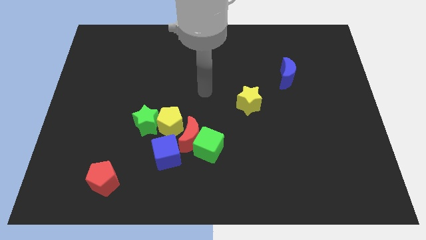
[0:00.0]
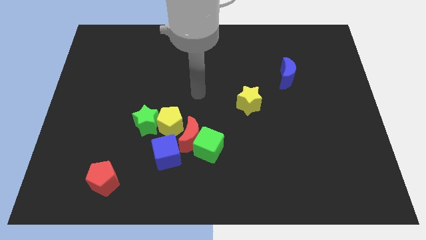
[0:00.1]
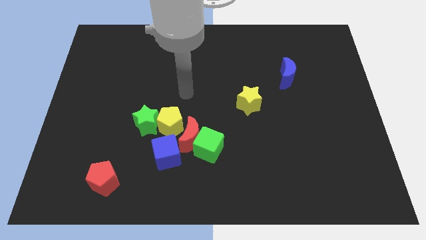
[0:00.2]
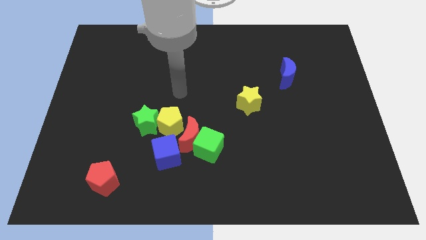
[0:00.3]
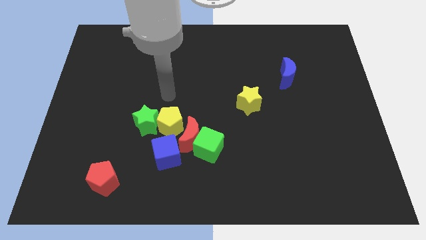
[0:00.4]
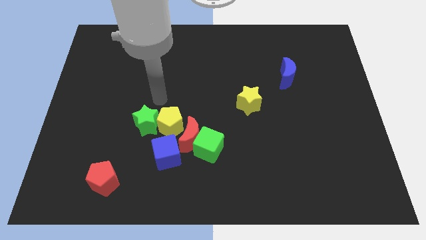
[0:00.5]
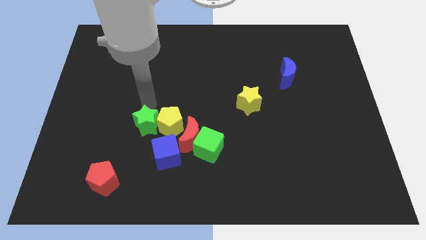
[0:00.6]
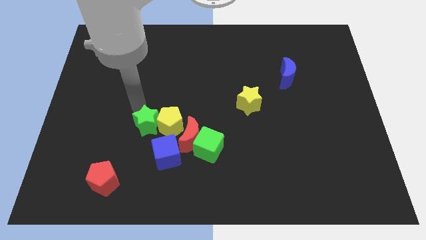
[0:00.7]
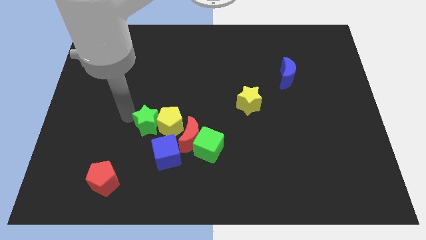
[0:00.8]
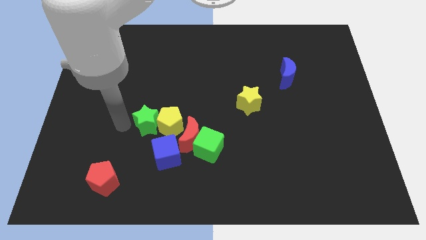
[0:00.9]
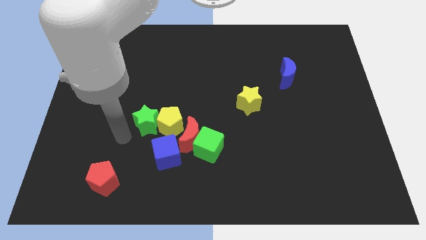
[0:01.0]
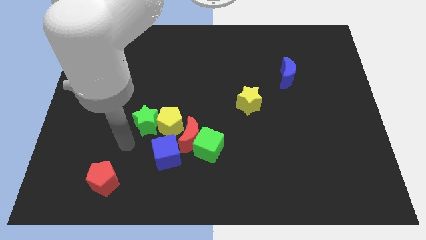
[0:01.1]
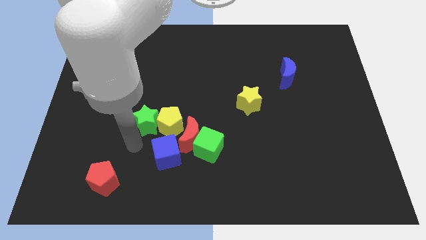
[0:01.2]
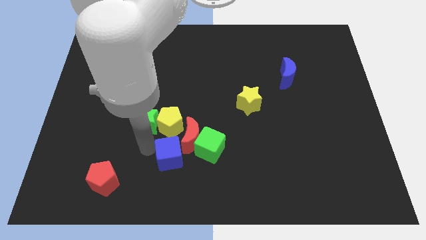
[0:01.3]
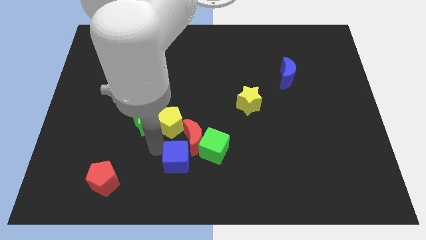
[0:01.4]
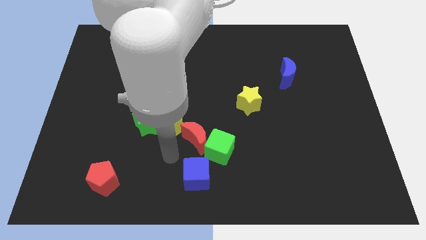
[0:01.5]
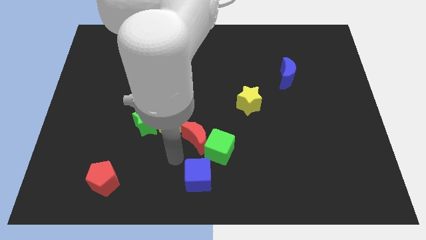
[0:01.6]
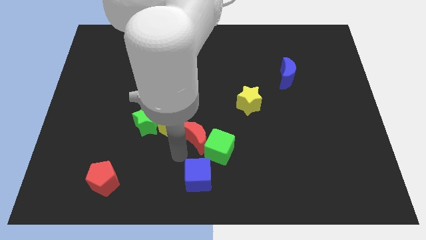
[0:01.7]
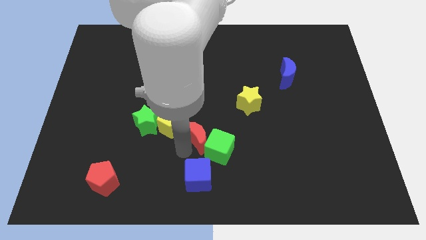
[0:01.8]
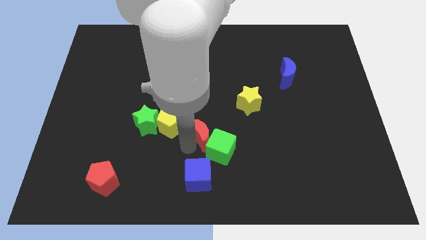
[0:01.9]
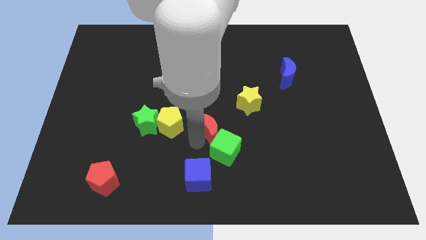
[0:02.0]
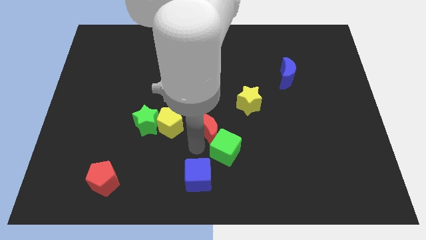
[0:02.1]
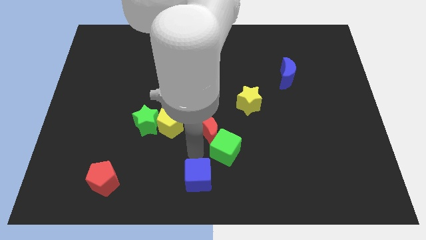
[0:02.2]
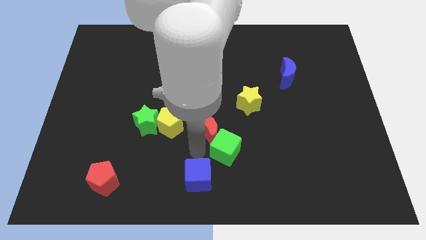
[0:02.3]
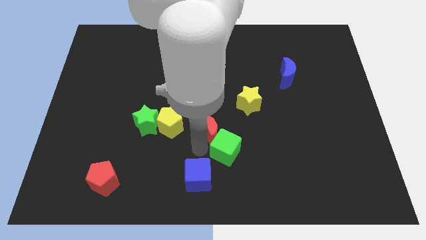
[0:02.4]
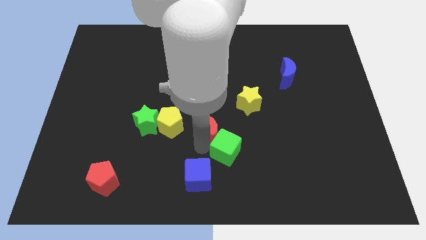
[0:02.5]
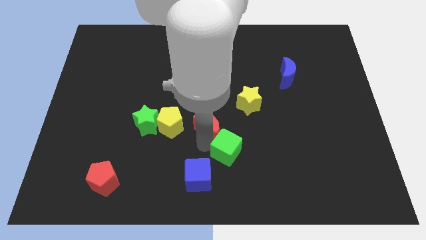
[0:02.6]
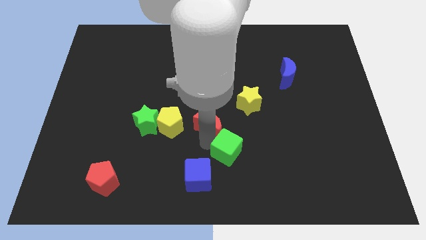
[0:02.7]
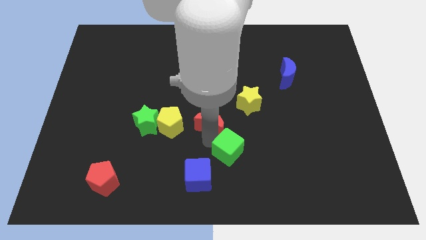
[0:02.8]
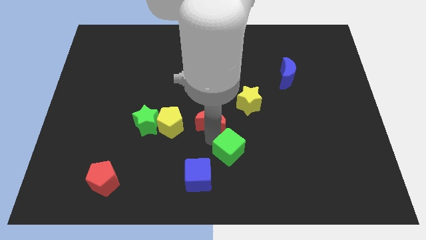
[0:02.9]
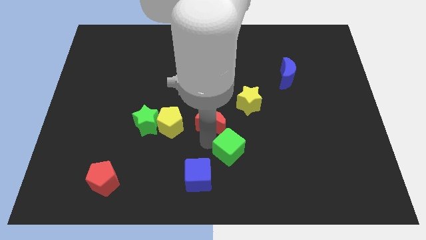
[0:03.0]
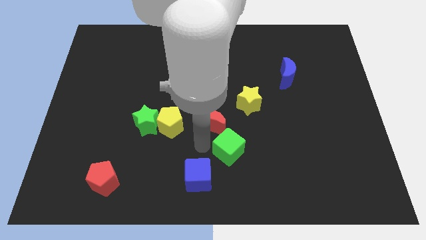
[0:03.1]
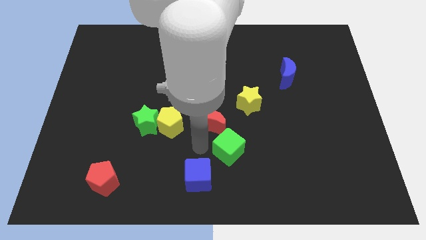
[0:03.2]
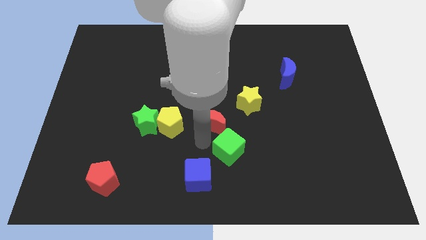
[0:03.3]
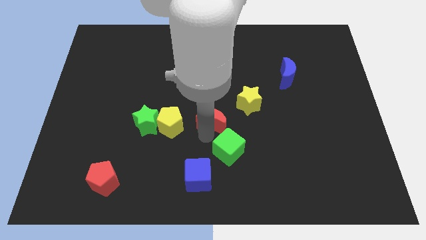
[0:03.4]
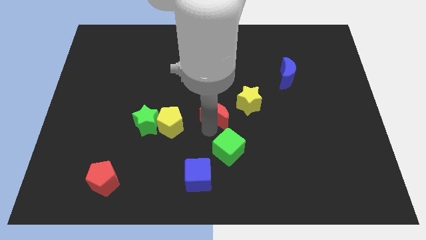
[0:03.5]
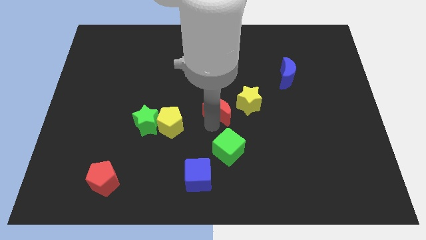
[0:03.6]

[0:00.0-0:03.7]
separate the red moon from the clump

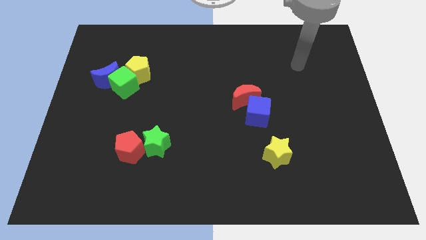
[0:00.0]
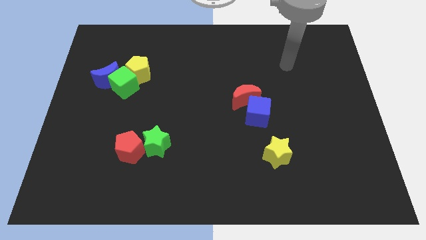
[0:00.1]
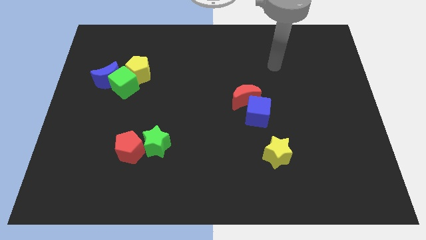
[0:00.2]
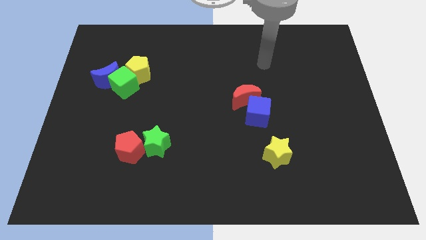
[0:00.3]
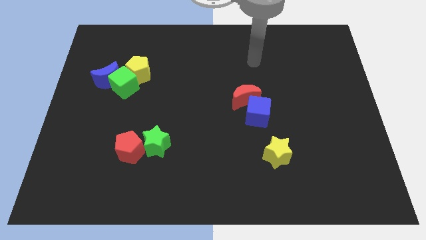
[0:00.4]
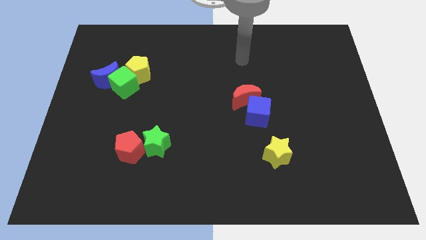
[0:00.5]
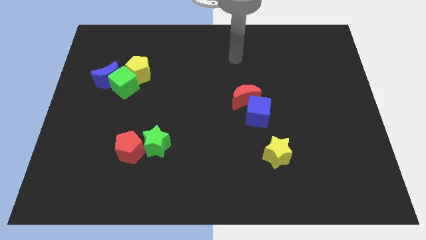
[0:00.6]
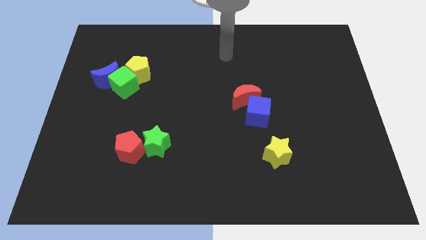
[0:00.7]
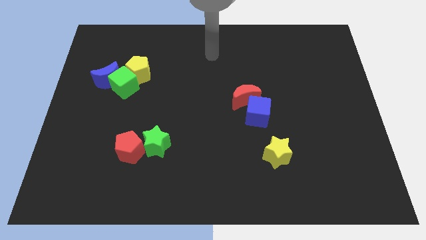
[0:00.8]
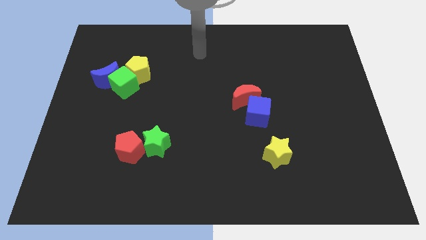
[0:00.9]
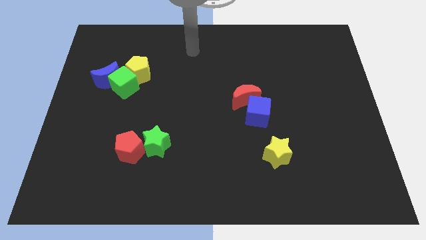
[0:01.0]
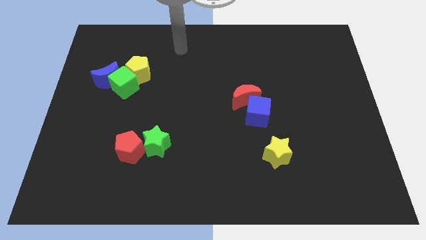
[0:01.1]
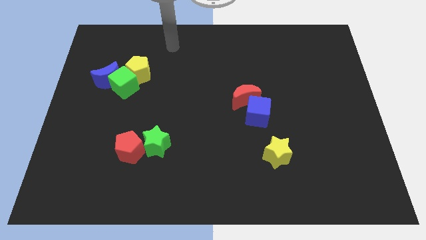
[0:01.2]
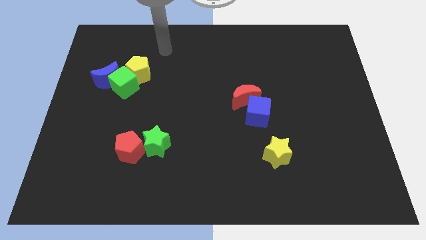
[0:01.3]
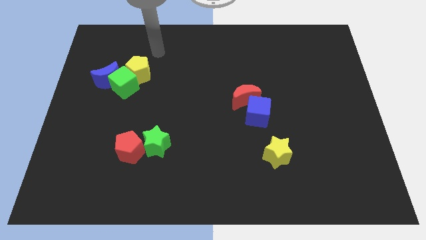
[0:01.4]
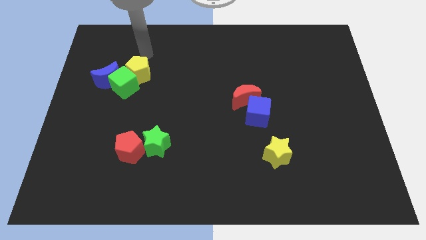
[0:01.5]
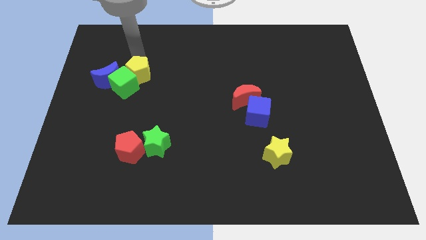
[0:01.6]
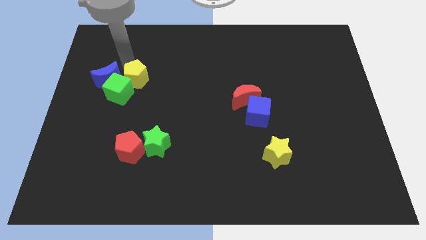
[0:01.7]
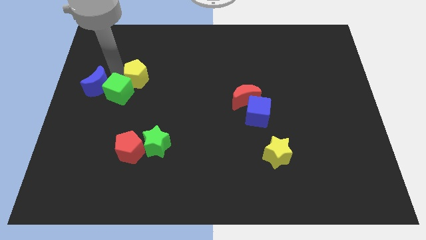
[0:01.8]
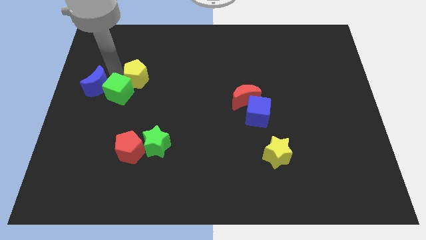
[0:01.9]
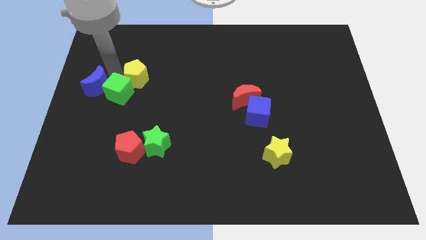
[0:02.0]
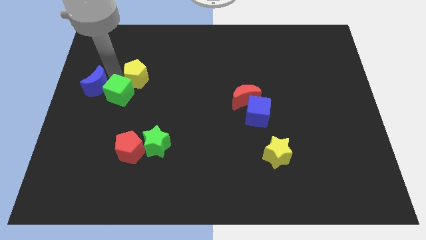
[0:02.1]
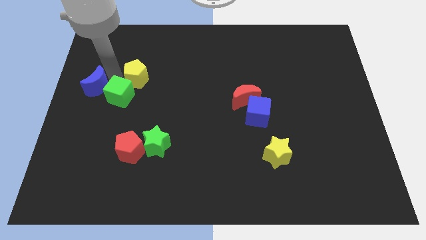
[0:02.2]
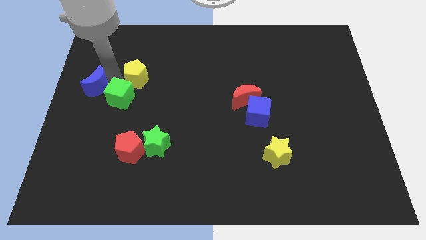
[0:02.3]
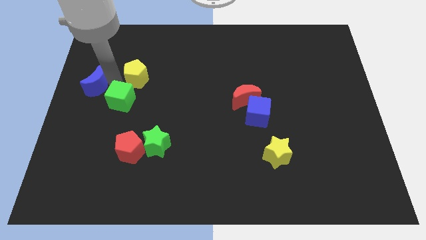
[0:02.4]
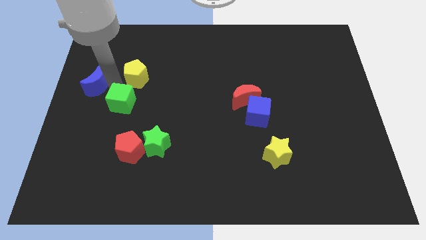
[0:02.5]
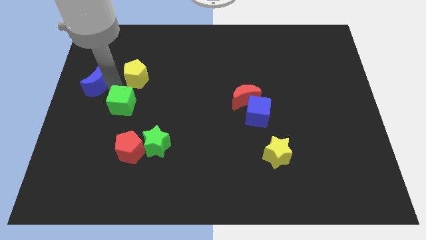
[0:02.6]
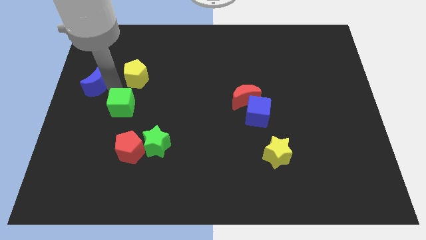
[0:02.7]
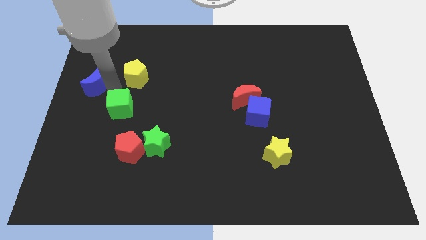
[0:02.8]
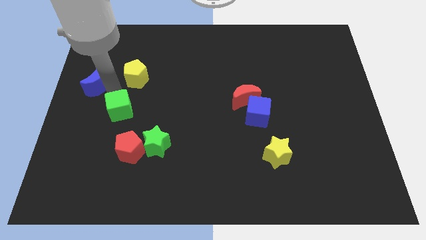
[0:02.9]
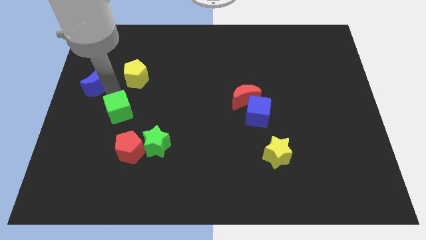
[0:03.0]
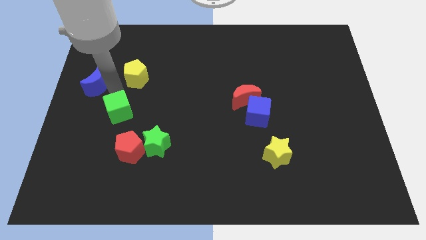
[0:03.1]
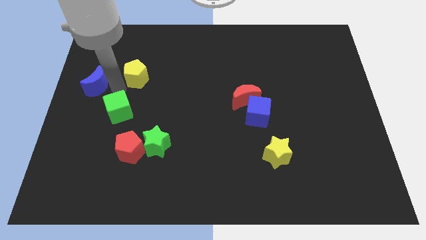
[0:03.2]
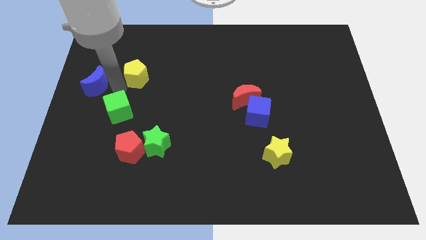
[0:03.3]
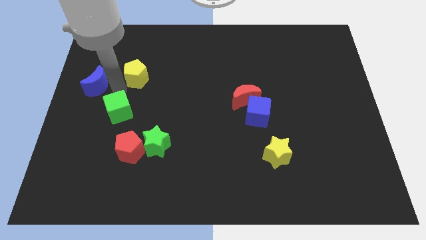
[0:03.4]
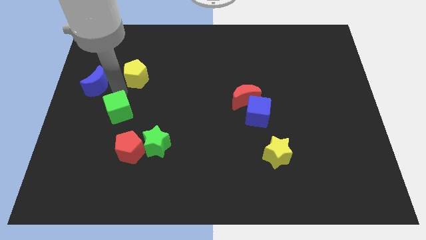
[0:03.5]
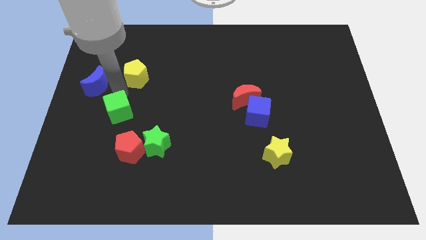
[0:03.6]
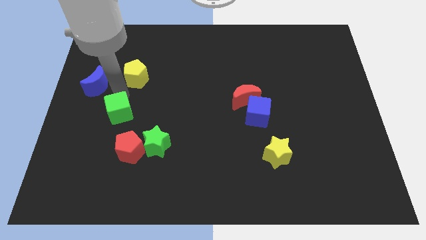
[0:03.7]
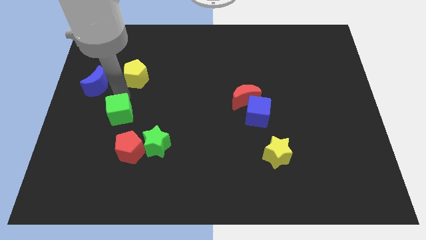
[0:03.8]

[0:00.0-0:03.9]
move the green cube away from the blue moon and yellow pentagon

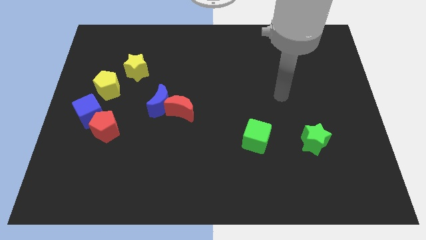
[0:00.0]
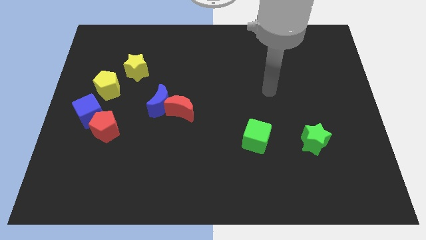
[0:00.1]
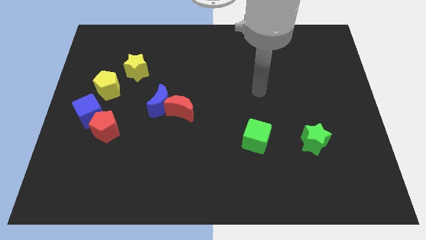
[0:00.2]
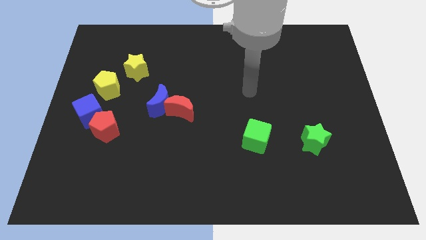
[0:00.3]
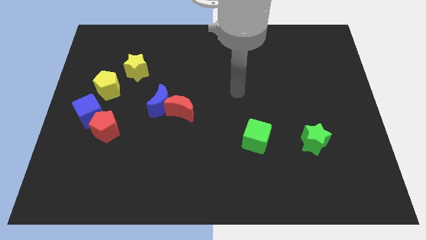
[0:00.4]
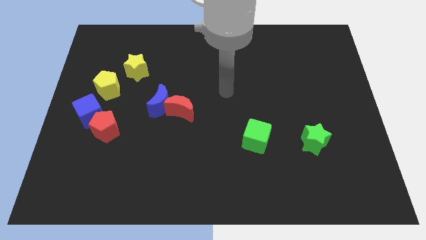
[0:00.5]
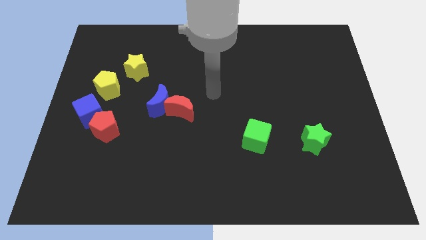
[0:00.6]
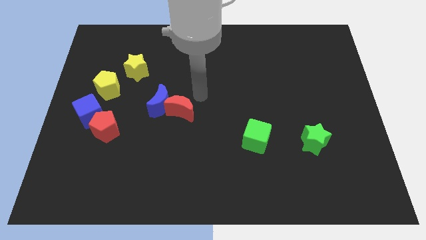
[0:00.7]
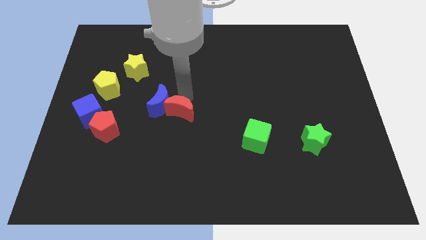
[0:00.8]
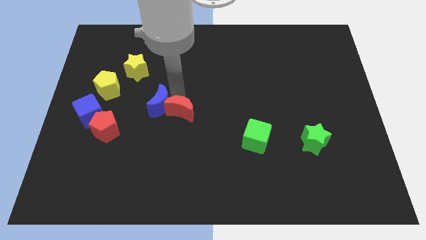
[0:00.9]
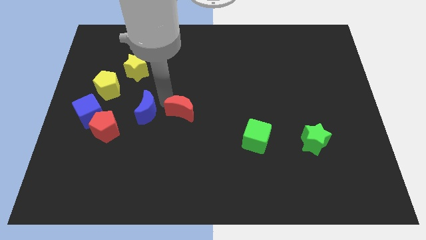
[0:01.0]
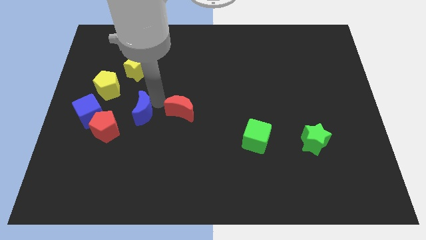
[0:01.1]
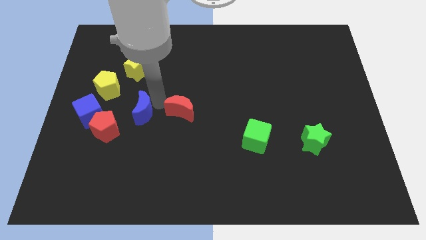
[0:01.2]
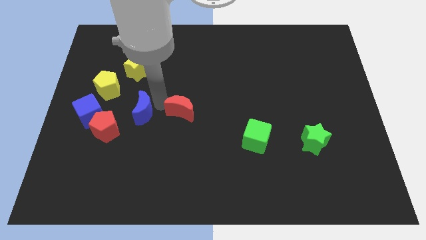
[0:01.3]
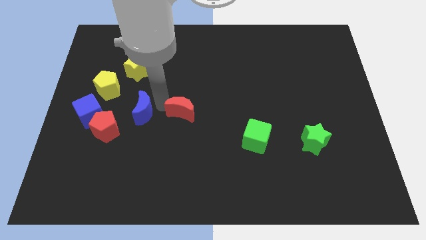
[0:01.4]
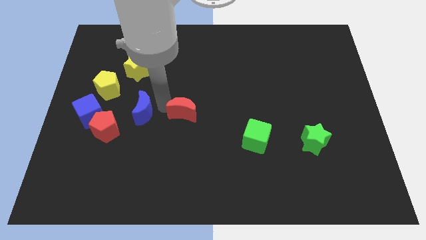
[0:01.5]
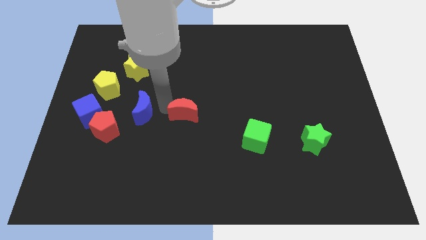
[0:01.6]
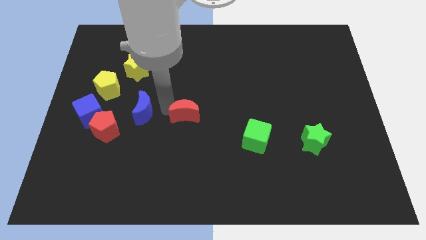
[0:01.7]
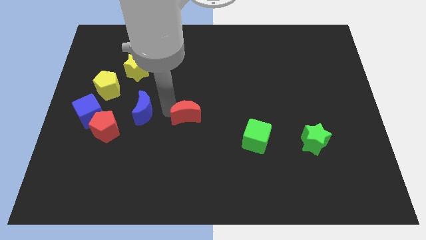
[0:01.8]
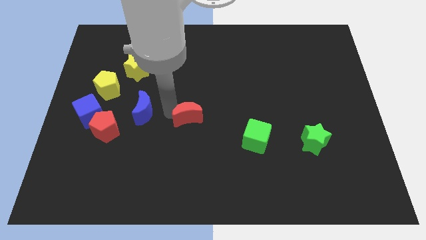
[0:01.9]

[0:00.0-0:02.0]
move the red moon away from the blue moon
